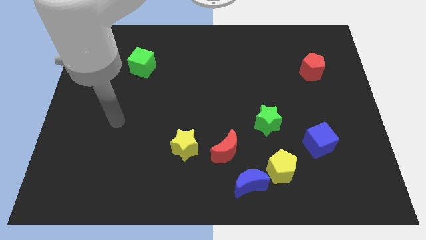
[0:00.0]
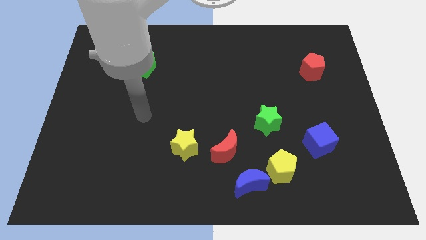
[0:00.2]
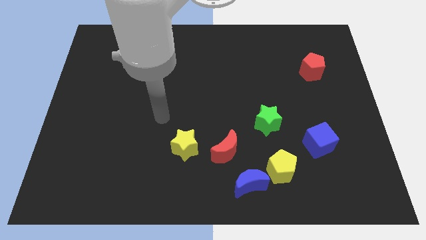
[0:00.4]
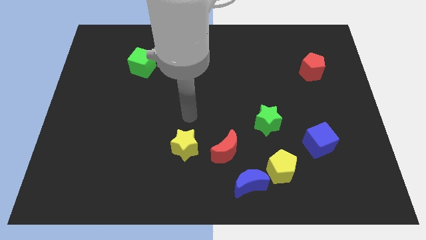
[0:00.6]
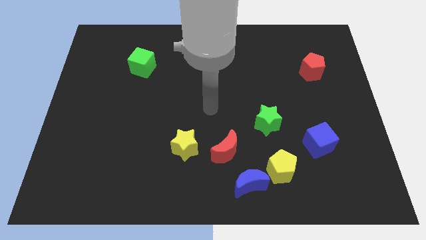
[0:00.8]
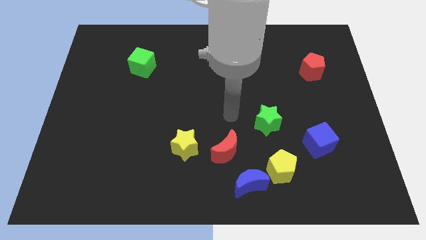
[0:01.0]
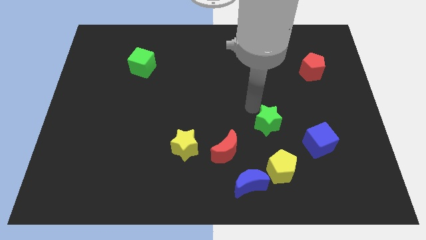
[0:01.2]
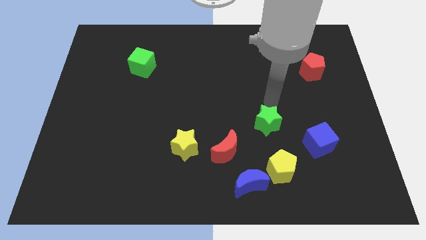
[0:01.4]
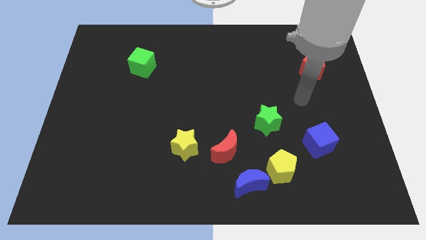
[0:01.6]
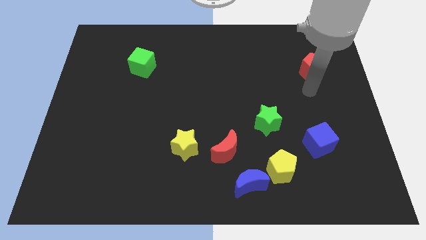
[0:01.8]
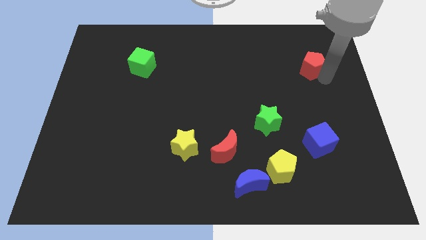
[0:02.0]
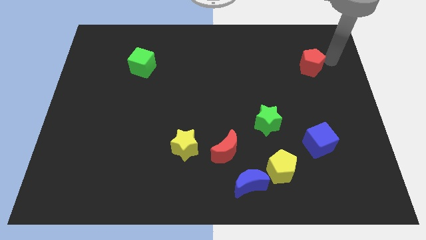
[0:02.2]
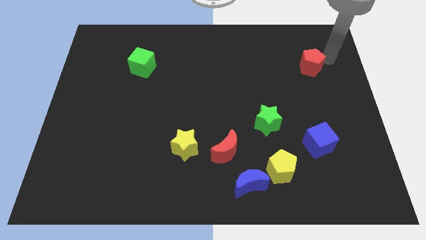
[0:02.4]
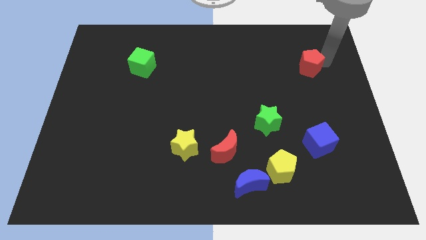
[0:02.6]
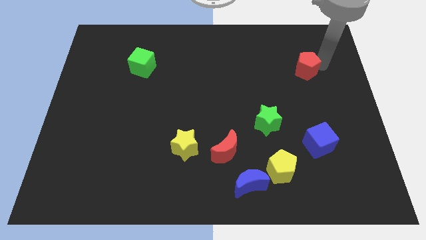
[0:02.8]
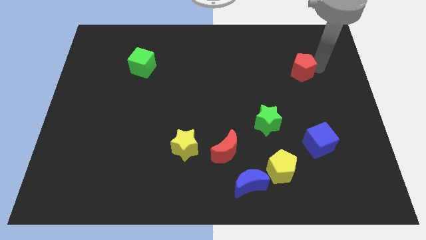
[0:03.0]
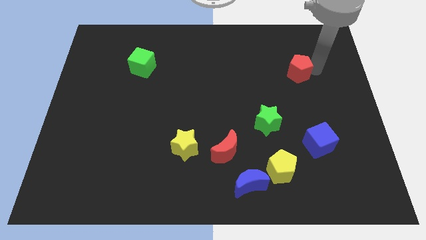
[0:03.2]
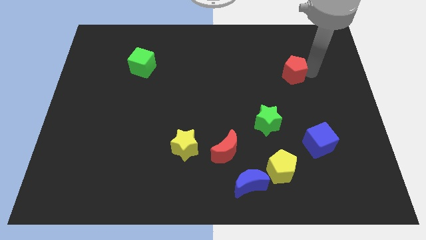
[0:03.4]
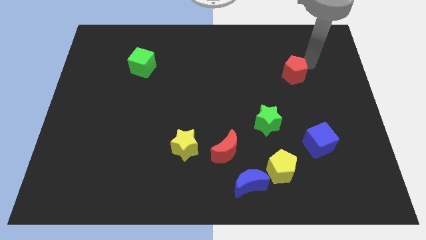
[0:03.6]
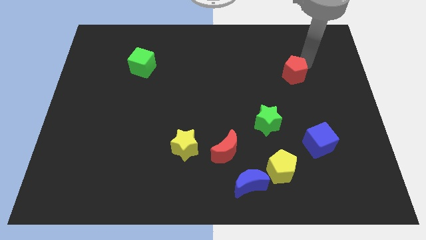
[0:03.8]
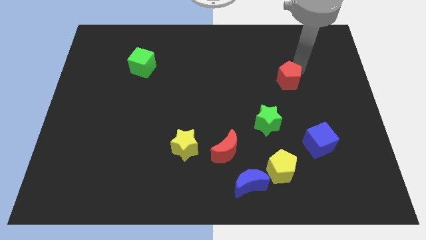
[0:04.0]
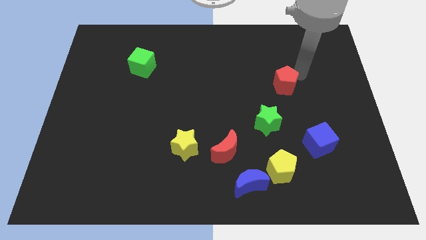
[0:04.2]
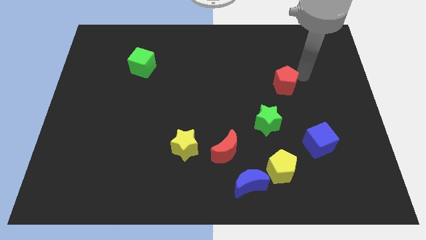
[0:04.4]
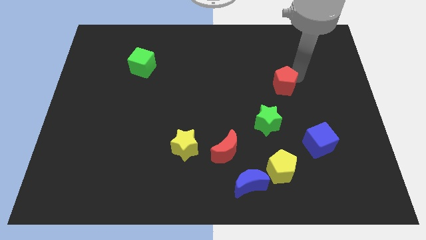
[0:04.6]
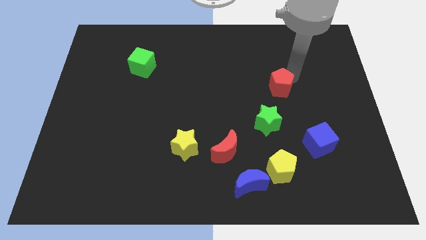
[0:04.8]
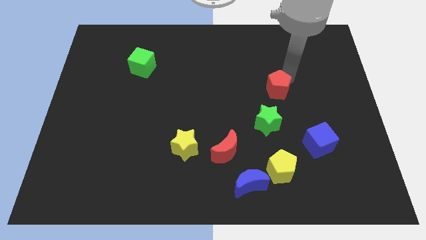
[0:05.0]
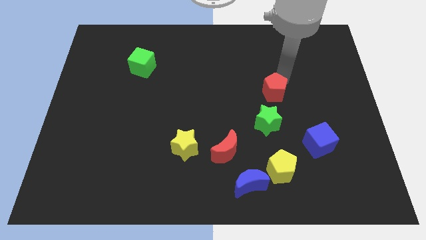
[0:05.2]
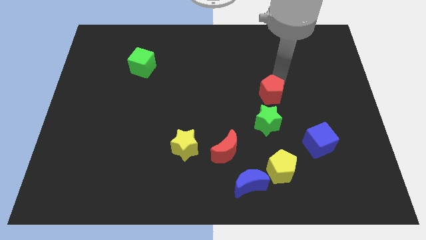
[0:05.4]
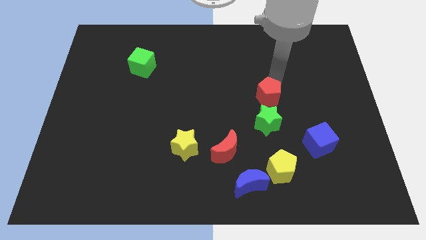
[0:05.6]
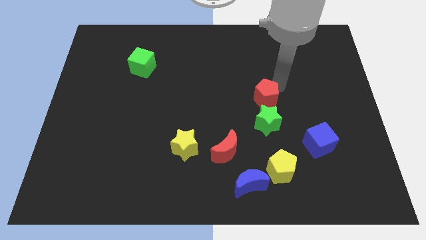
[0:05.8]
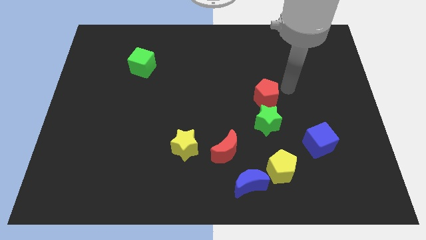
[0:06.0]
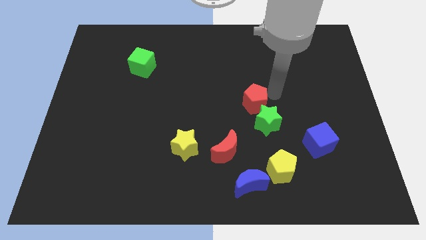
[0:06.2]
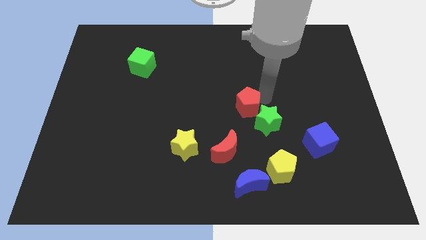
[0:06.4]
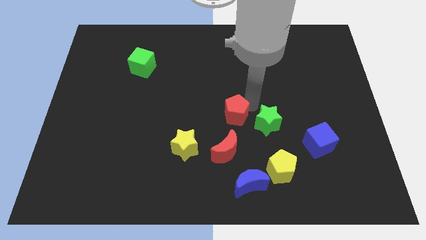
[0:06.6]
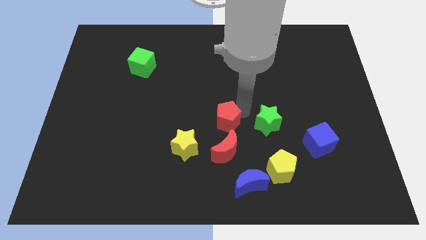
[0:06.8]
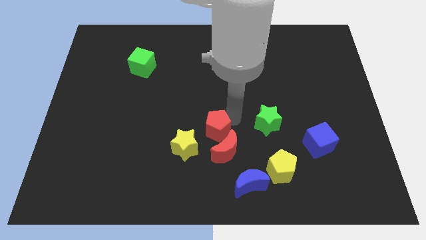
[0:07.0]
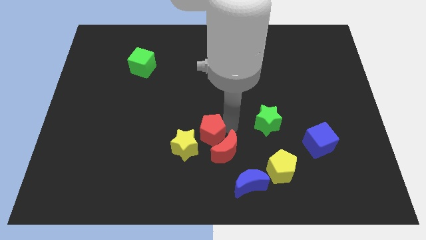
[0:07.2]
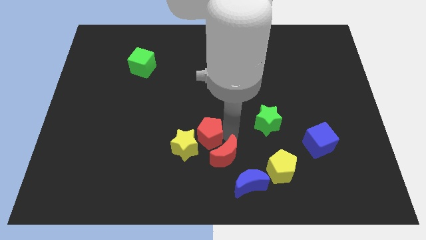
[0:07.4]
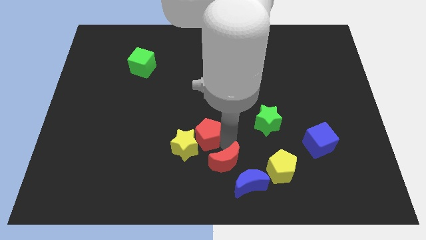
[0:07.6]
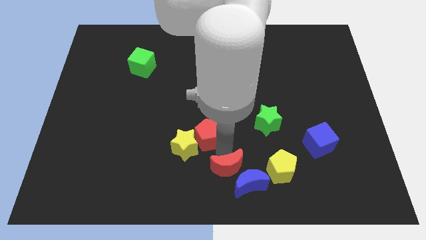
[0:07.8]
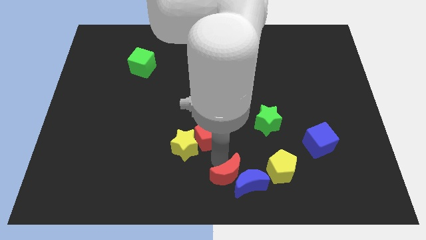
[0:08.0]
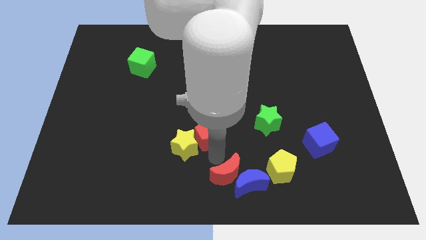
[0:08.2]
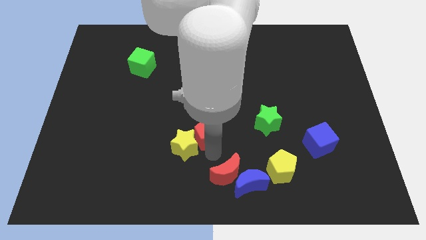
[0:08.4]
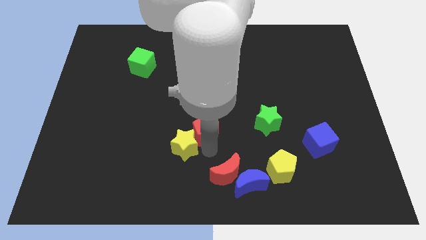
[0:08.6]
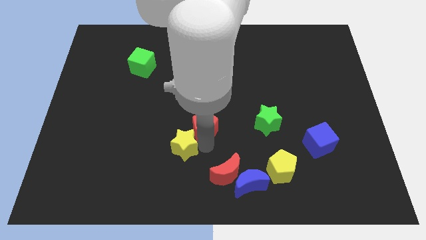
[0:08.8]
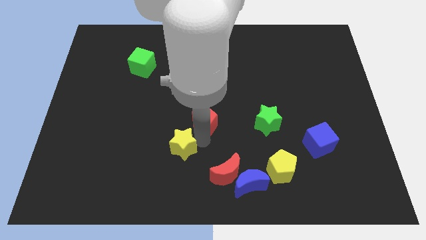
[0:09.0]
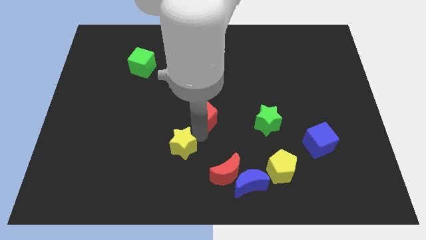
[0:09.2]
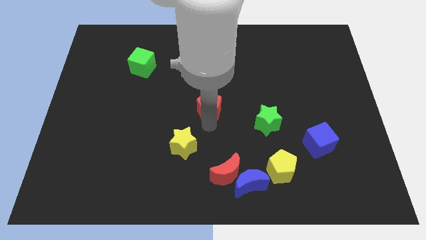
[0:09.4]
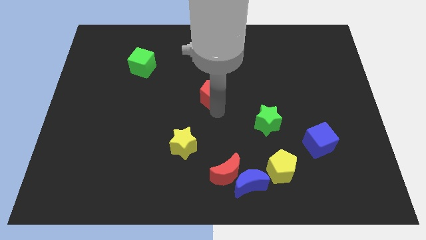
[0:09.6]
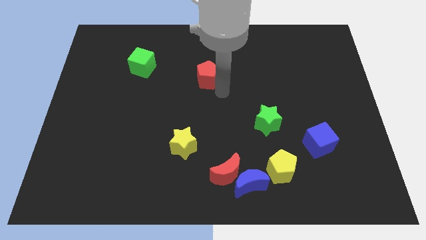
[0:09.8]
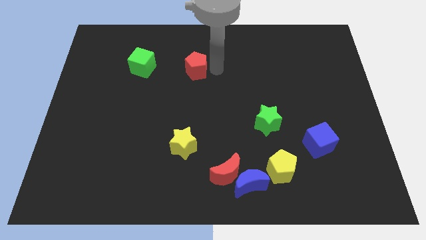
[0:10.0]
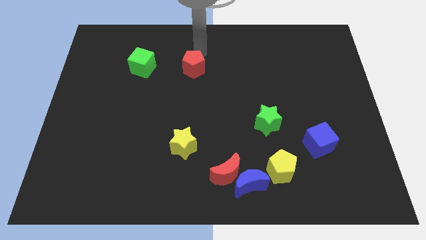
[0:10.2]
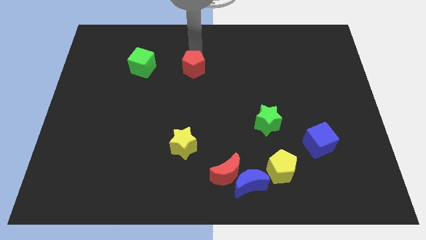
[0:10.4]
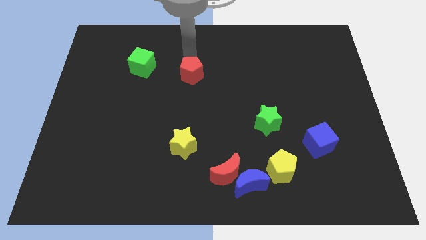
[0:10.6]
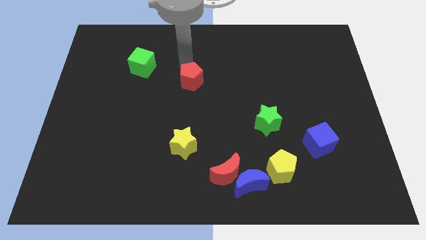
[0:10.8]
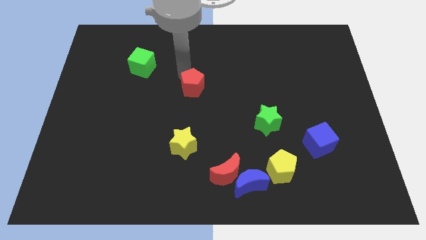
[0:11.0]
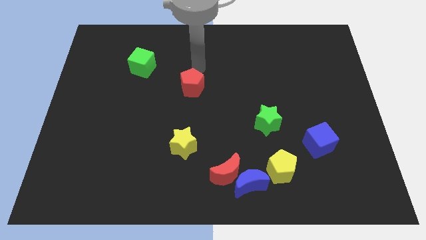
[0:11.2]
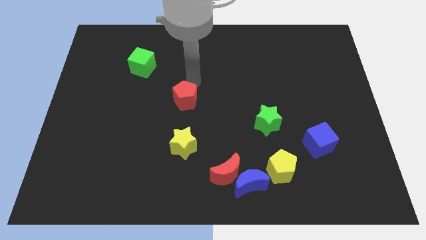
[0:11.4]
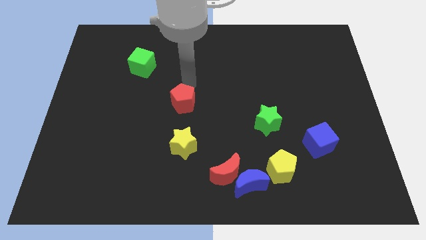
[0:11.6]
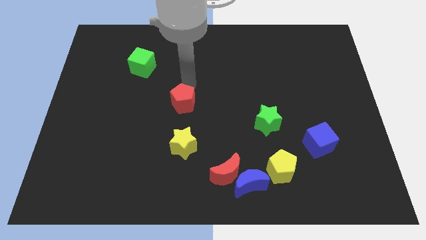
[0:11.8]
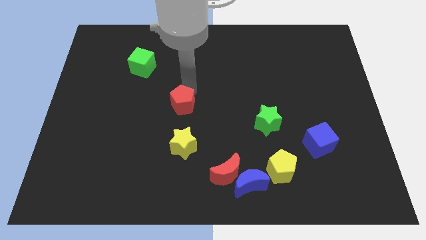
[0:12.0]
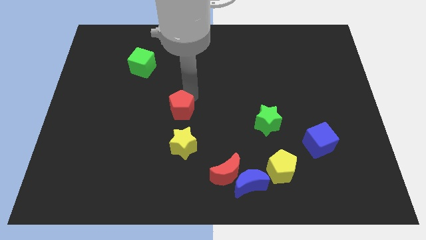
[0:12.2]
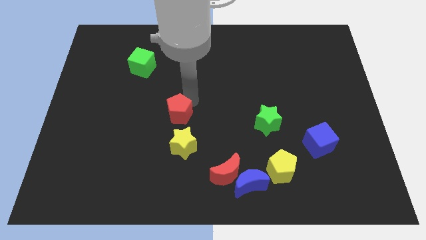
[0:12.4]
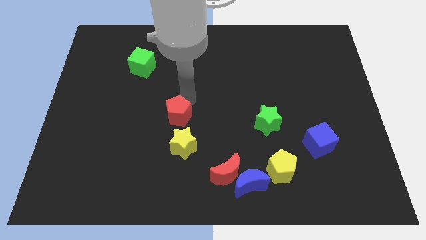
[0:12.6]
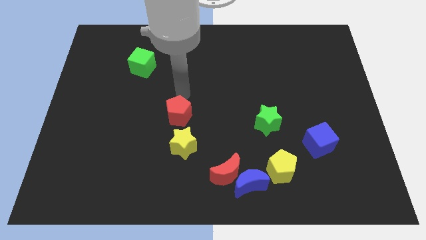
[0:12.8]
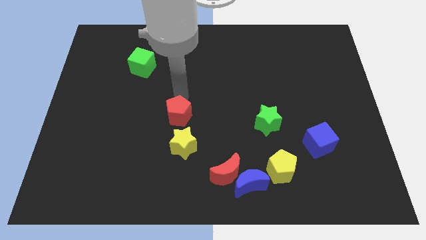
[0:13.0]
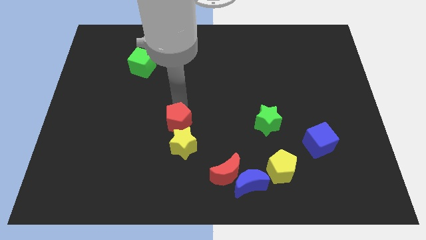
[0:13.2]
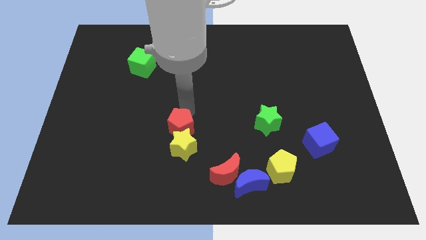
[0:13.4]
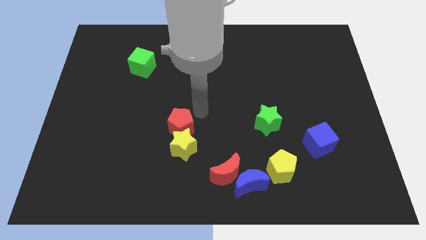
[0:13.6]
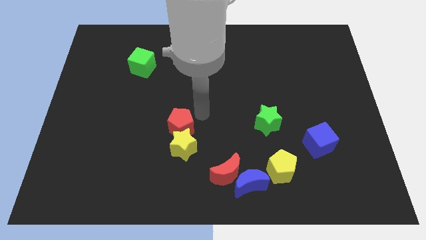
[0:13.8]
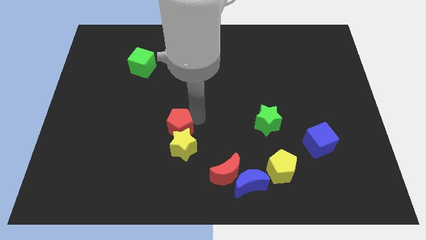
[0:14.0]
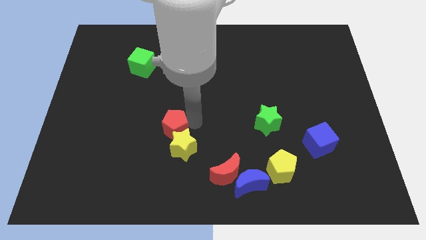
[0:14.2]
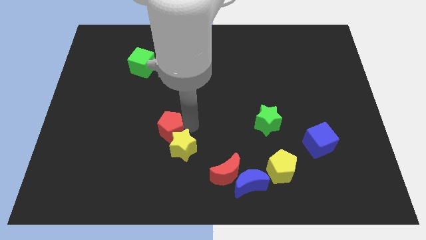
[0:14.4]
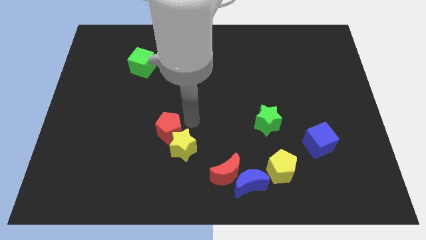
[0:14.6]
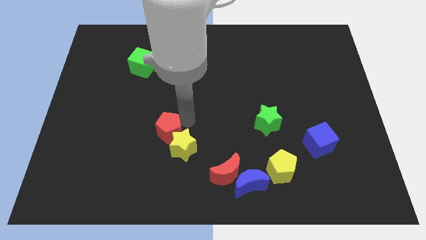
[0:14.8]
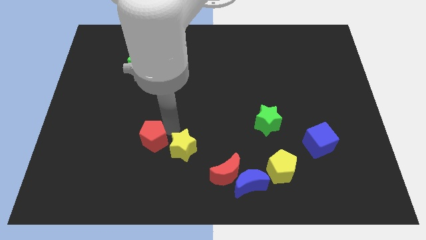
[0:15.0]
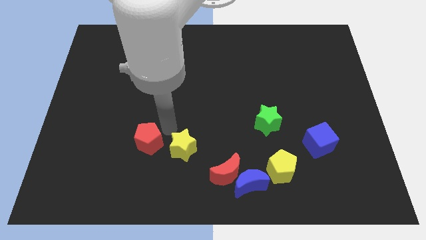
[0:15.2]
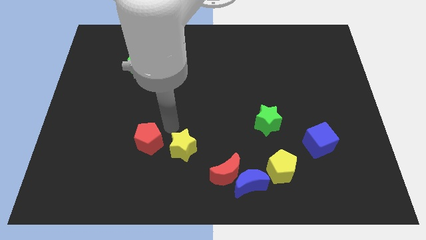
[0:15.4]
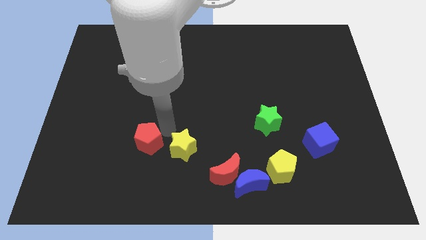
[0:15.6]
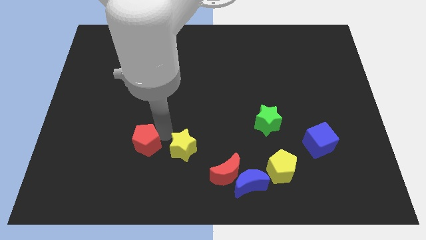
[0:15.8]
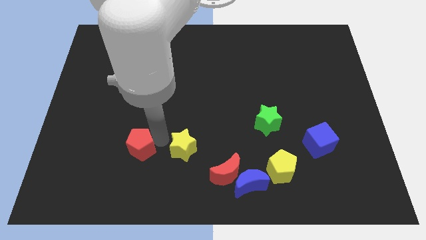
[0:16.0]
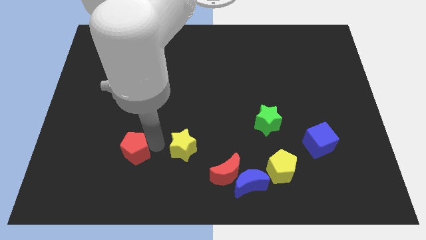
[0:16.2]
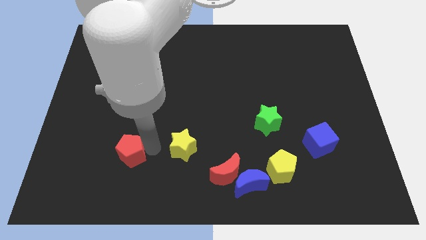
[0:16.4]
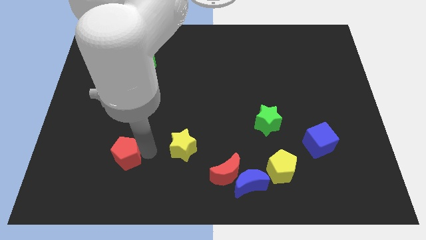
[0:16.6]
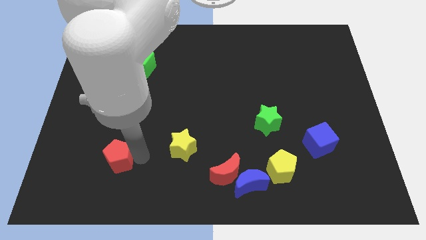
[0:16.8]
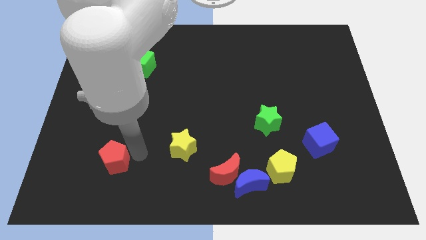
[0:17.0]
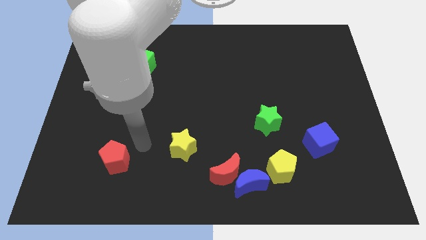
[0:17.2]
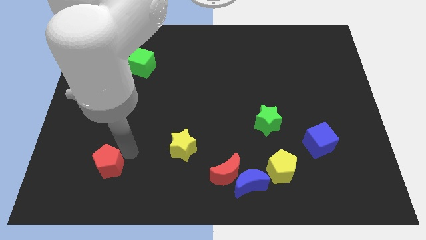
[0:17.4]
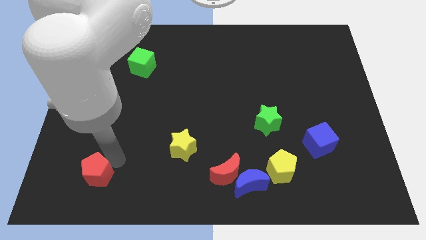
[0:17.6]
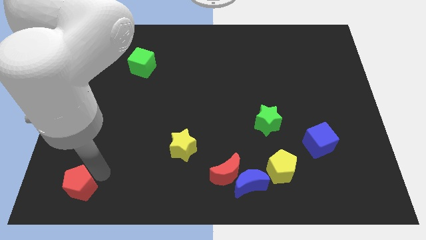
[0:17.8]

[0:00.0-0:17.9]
put the red pentagon to the bottom left
